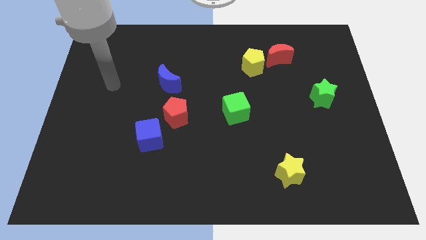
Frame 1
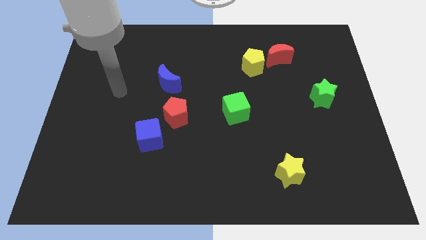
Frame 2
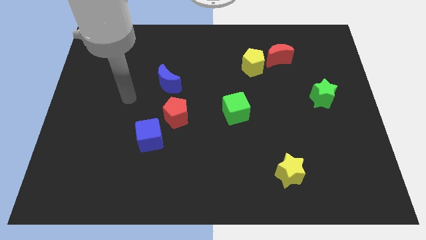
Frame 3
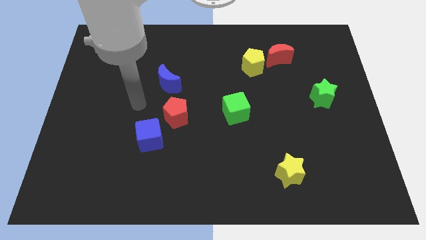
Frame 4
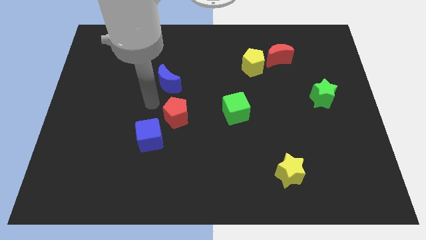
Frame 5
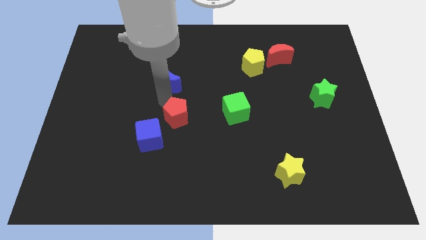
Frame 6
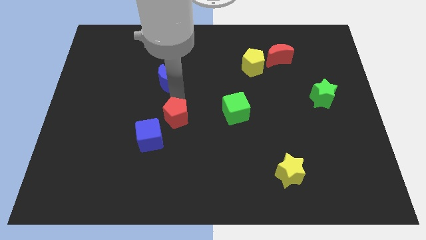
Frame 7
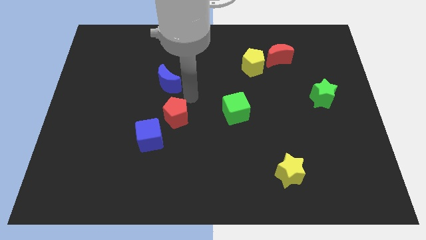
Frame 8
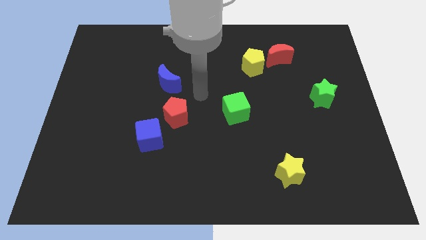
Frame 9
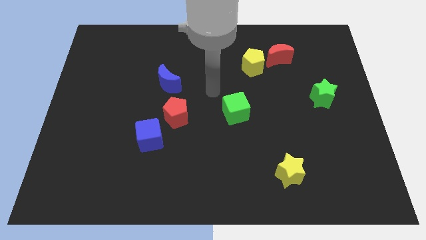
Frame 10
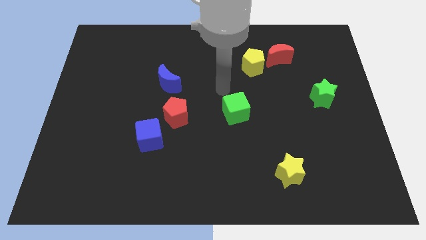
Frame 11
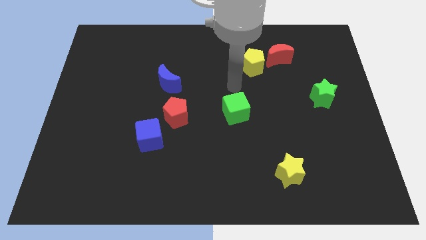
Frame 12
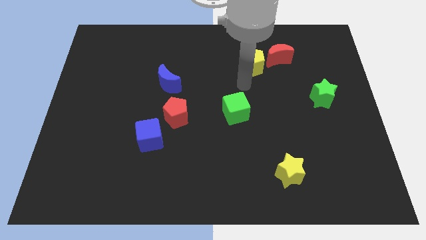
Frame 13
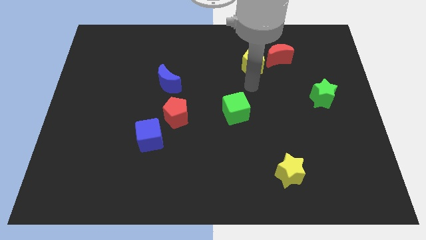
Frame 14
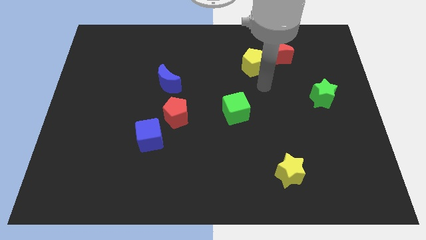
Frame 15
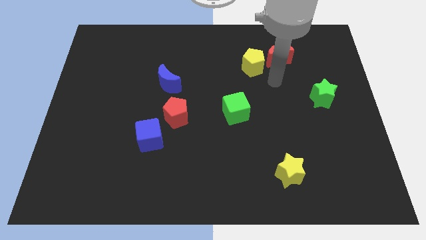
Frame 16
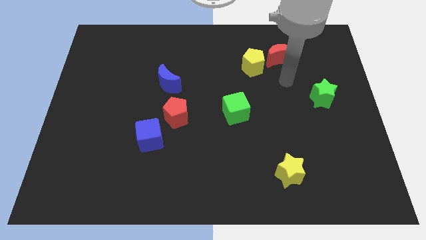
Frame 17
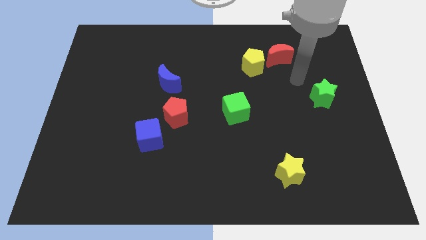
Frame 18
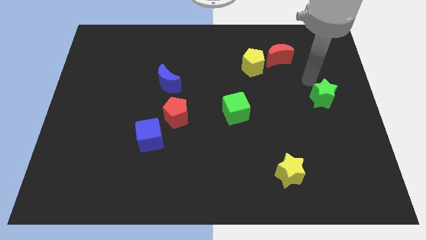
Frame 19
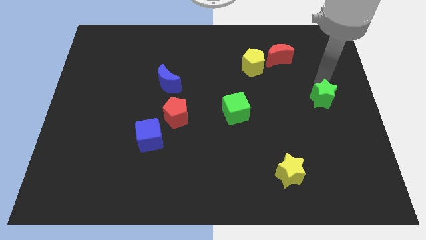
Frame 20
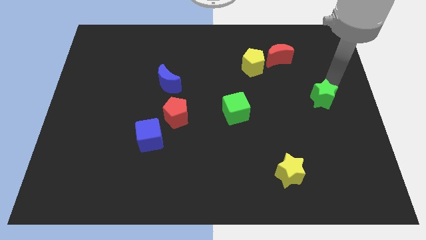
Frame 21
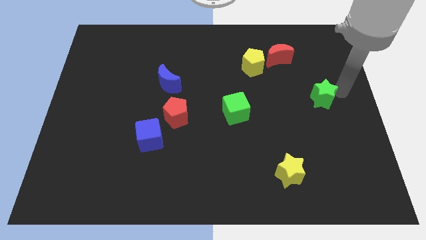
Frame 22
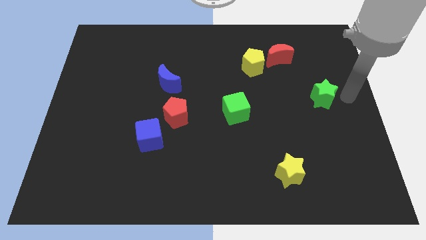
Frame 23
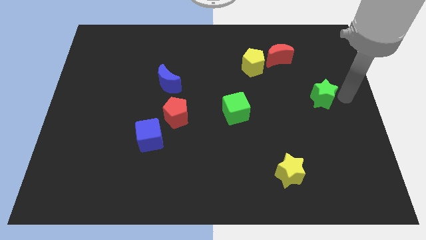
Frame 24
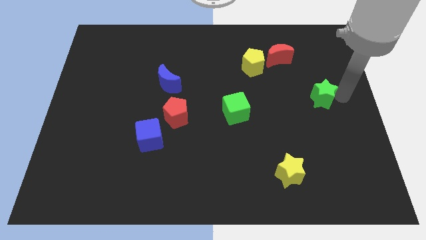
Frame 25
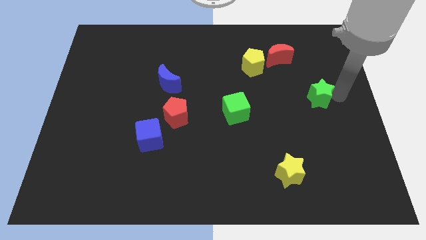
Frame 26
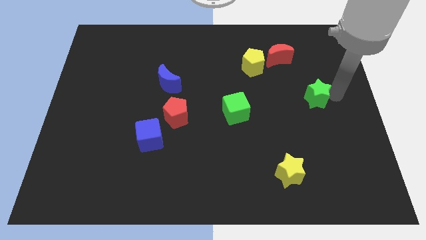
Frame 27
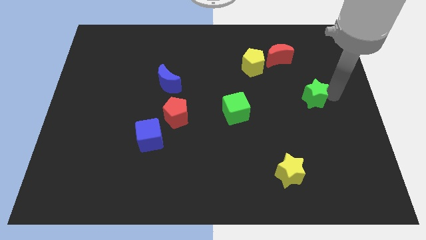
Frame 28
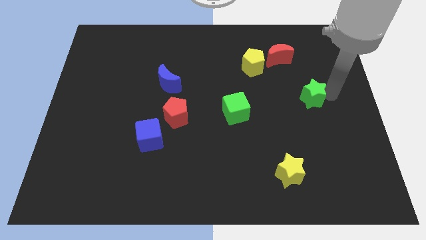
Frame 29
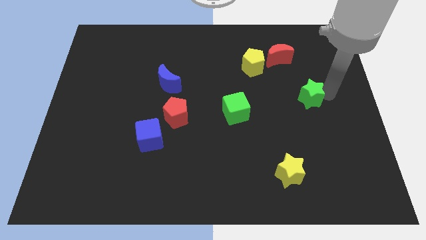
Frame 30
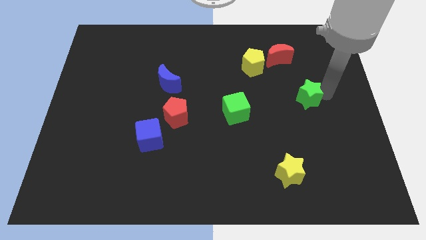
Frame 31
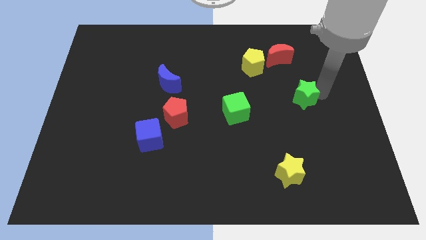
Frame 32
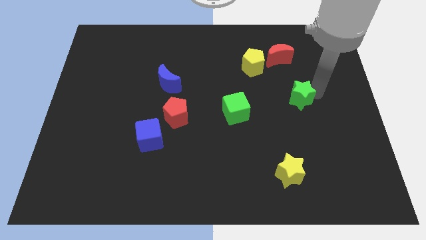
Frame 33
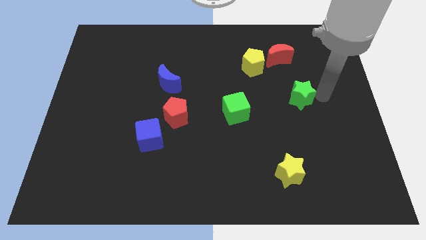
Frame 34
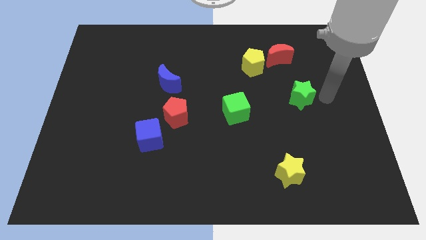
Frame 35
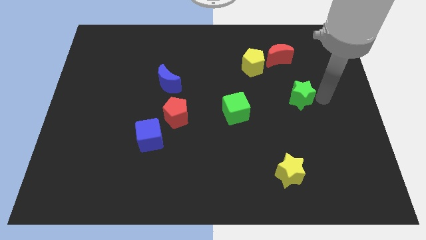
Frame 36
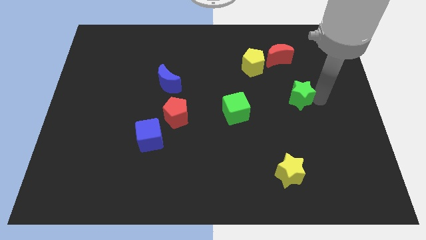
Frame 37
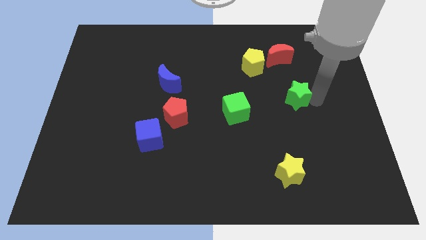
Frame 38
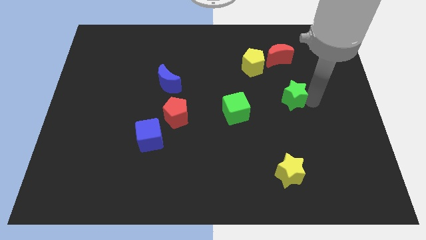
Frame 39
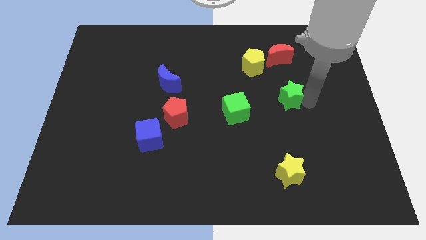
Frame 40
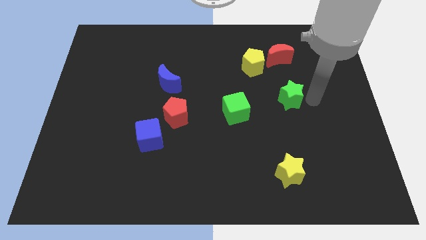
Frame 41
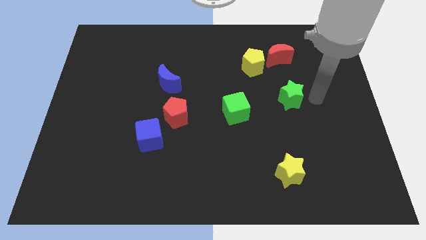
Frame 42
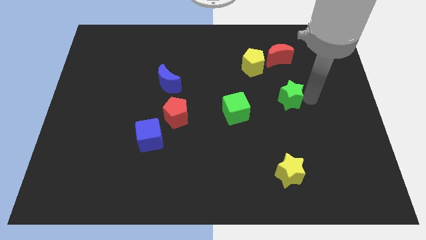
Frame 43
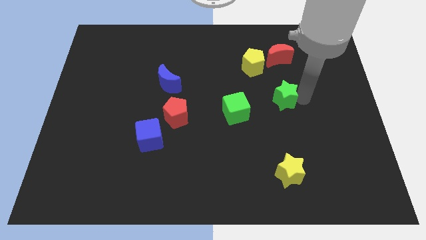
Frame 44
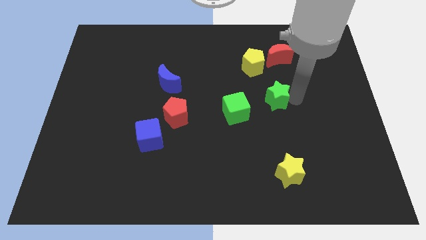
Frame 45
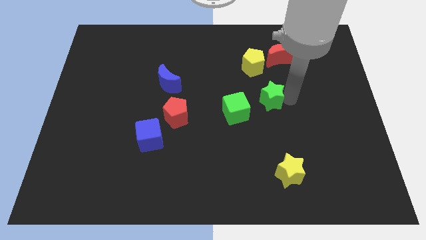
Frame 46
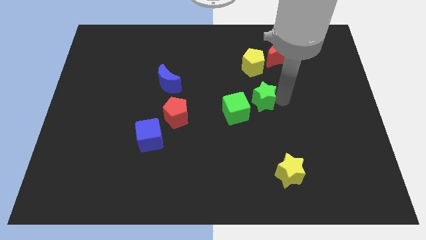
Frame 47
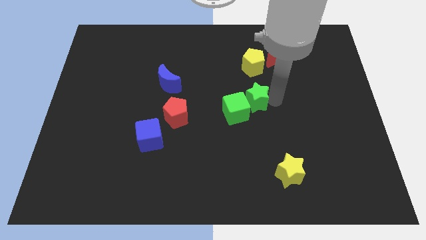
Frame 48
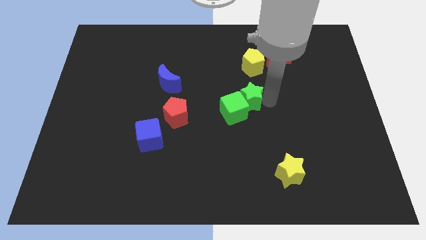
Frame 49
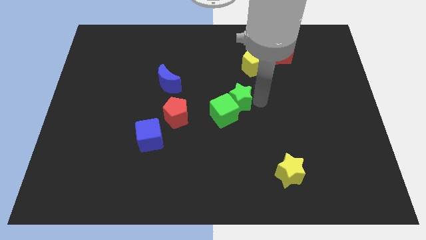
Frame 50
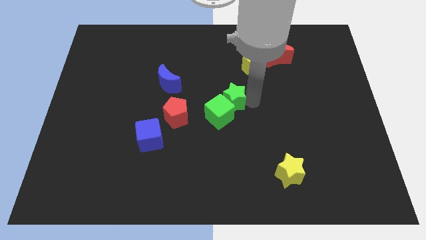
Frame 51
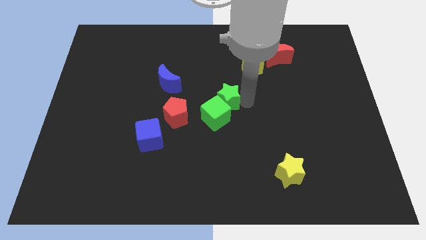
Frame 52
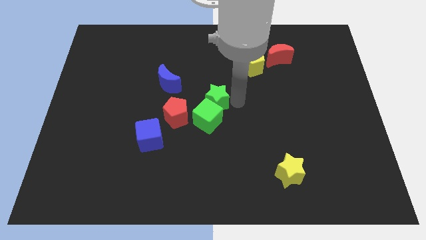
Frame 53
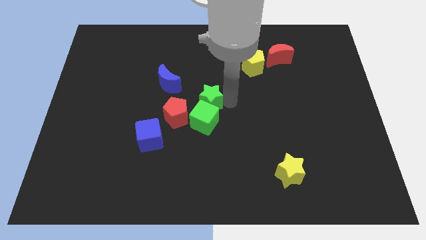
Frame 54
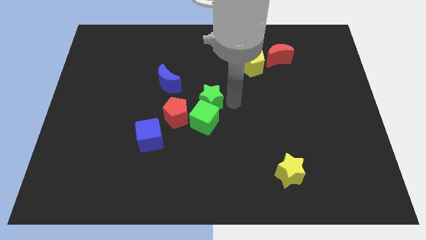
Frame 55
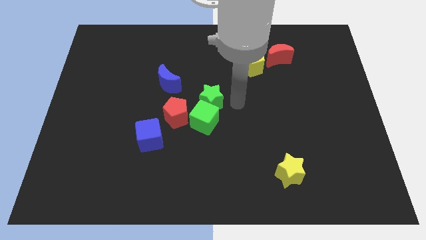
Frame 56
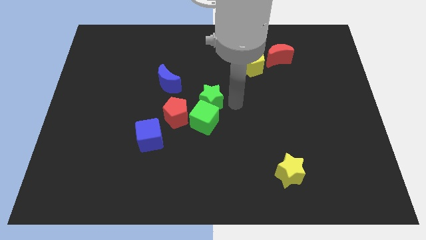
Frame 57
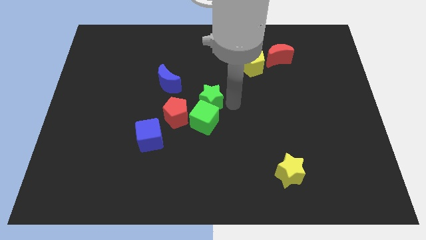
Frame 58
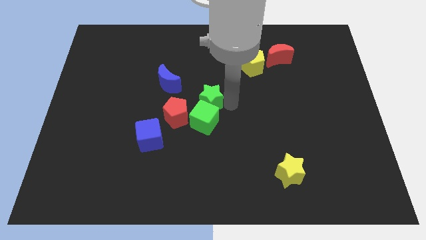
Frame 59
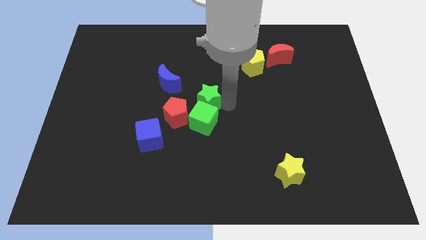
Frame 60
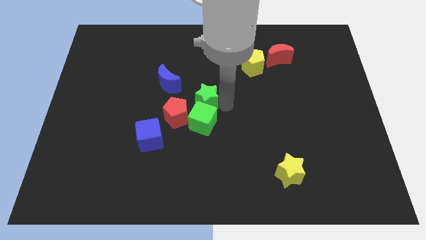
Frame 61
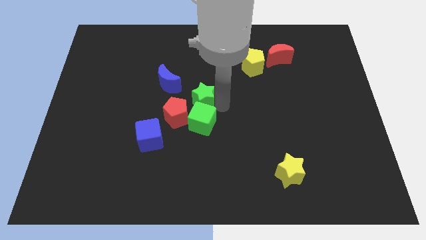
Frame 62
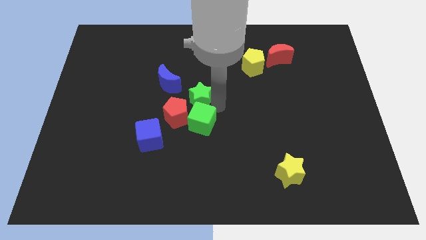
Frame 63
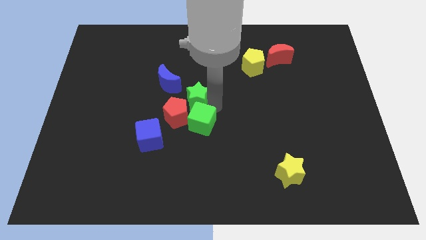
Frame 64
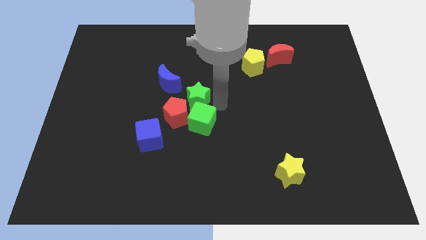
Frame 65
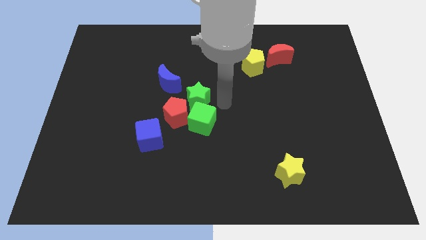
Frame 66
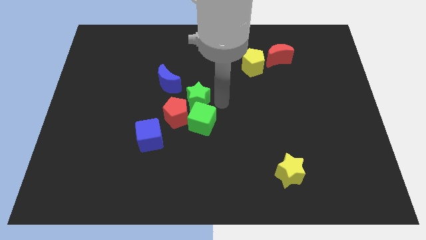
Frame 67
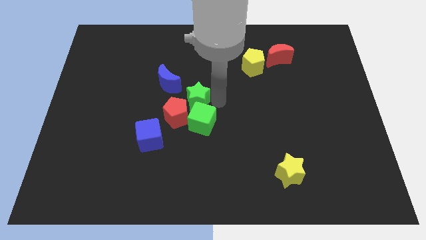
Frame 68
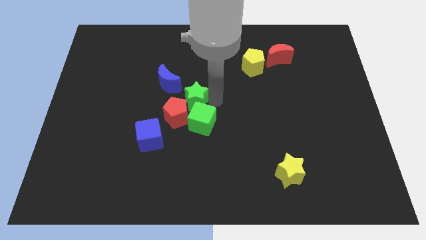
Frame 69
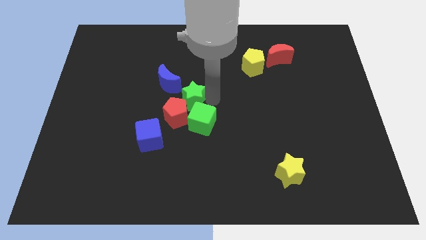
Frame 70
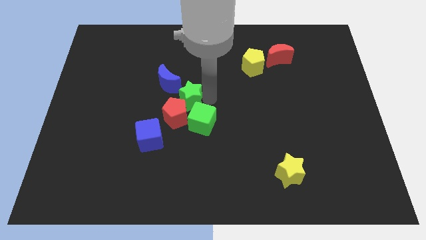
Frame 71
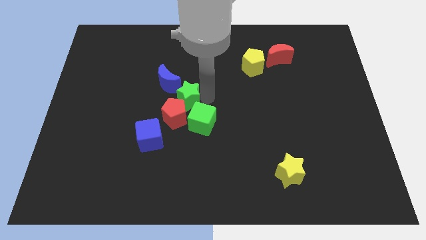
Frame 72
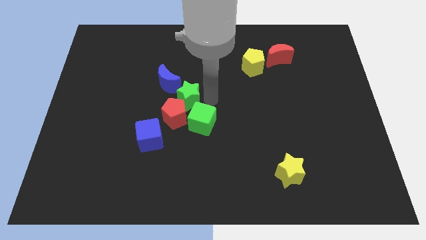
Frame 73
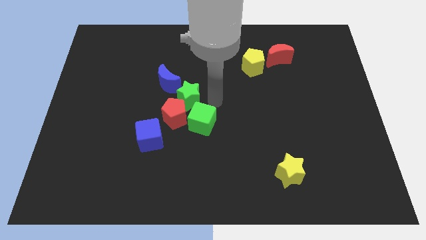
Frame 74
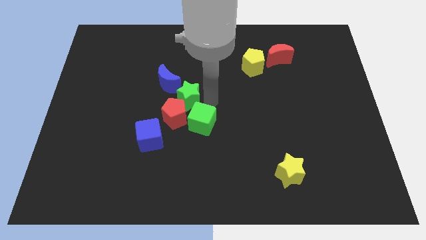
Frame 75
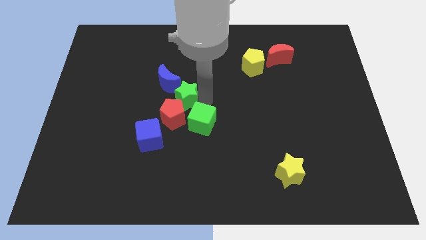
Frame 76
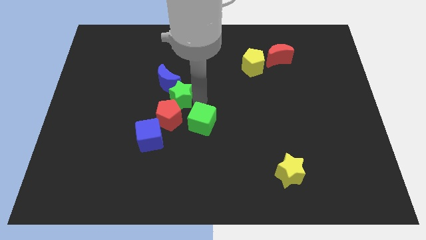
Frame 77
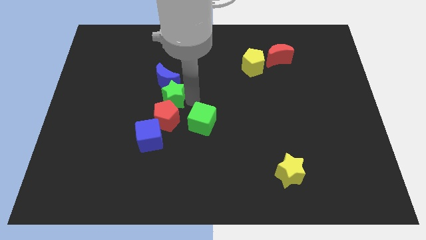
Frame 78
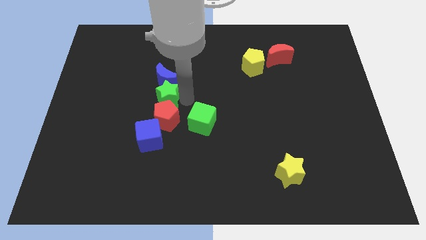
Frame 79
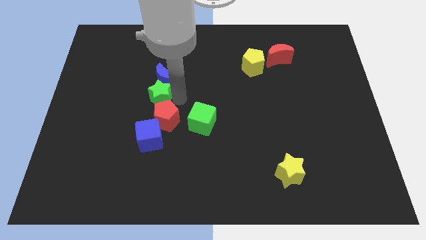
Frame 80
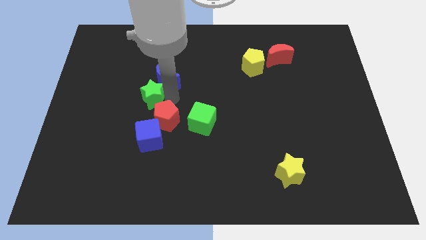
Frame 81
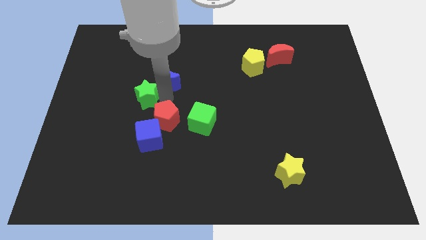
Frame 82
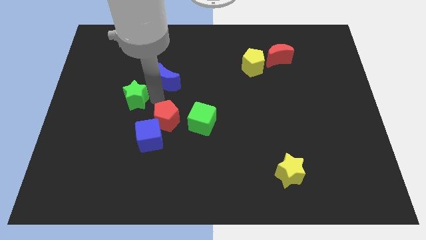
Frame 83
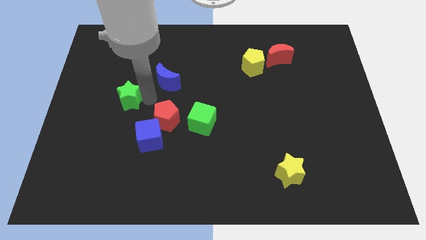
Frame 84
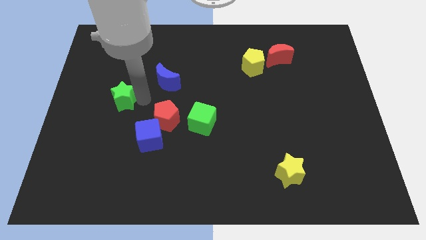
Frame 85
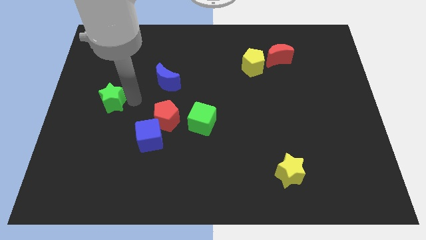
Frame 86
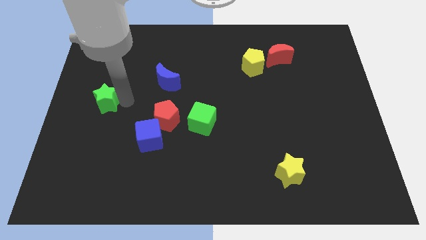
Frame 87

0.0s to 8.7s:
push the green star to the left side of the board
